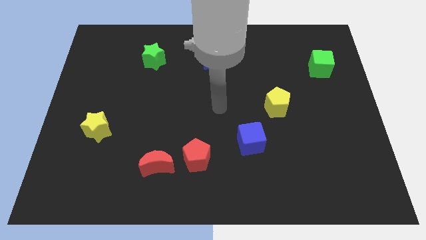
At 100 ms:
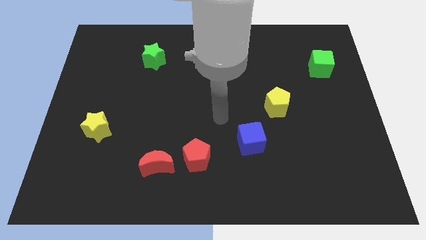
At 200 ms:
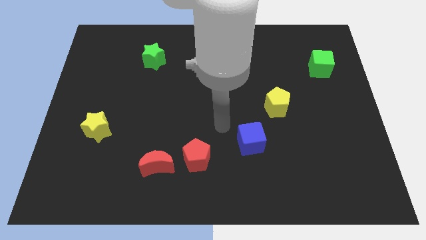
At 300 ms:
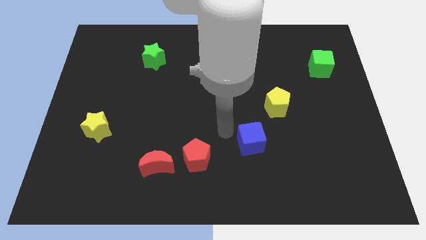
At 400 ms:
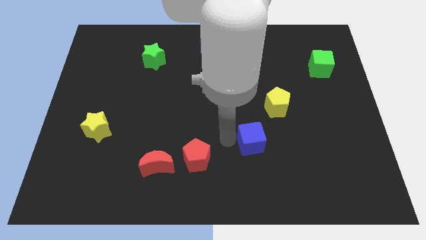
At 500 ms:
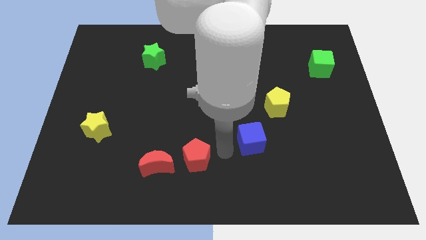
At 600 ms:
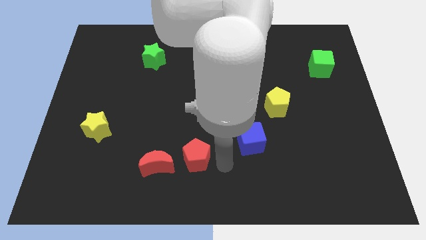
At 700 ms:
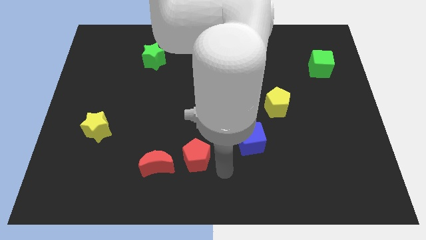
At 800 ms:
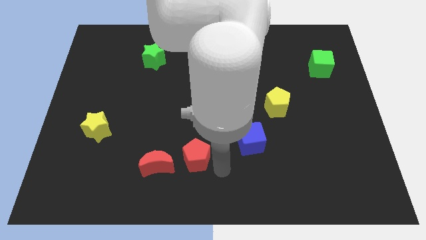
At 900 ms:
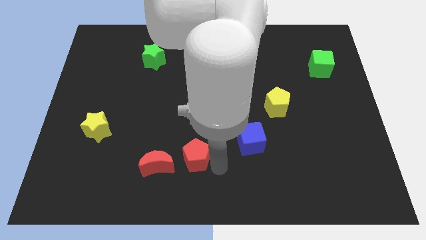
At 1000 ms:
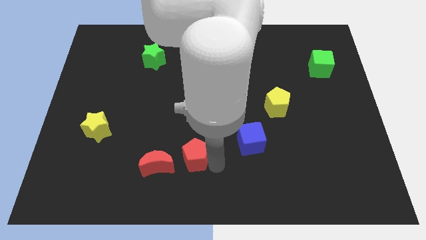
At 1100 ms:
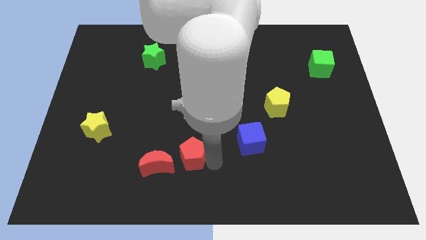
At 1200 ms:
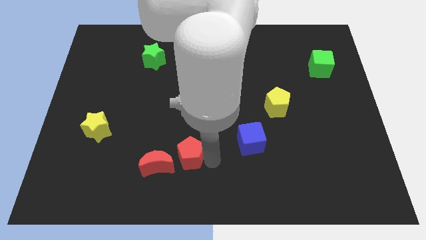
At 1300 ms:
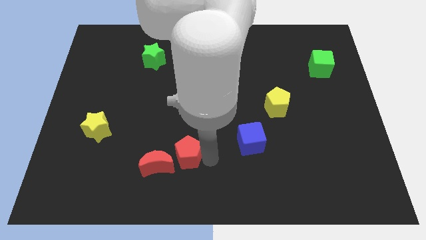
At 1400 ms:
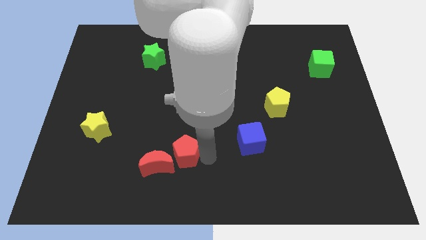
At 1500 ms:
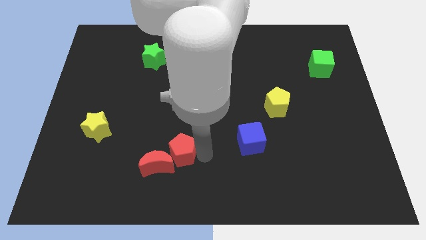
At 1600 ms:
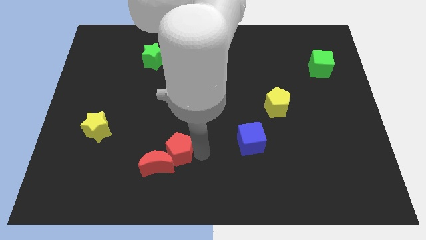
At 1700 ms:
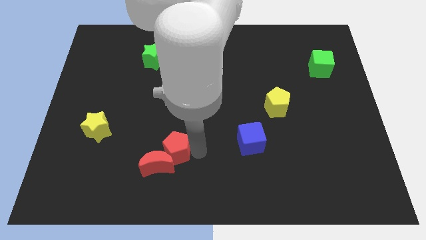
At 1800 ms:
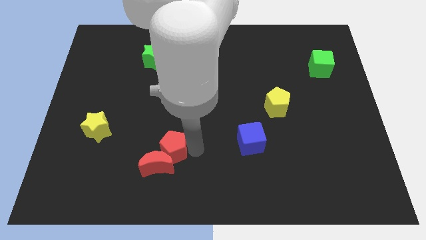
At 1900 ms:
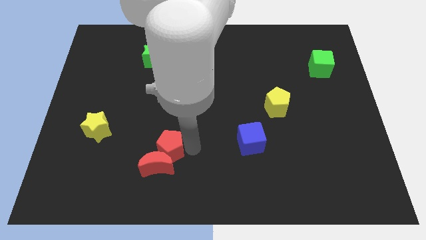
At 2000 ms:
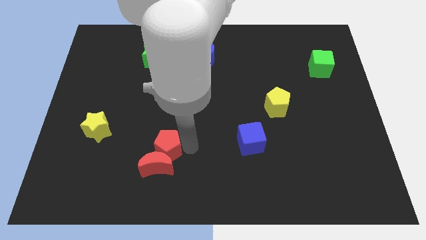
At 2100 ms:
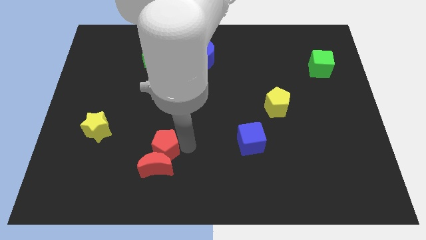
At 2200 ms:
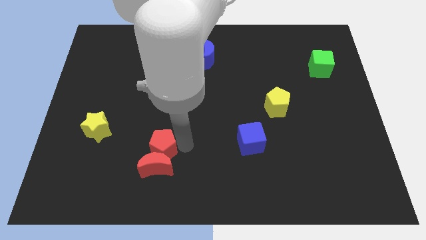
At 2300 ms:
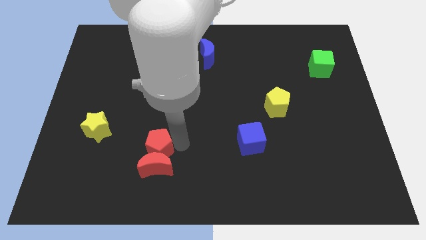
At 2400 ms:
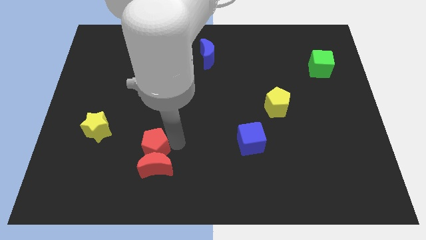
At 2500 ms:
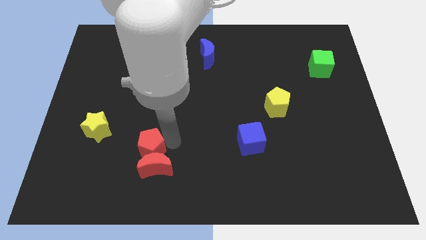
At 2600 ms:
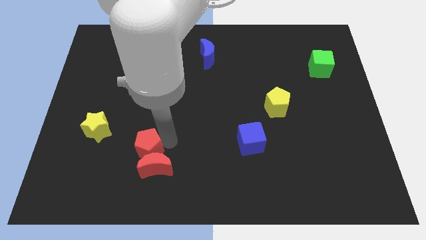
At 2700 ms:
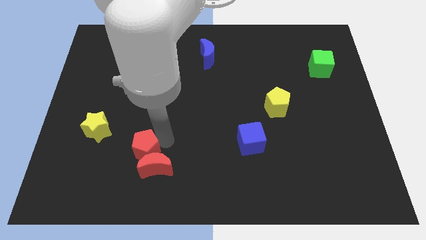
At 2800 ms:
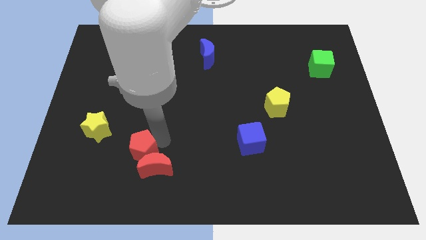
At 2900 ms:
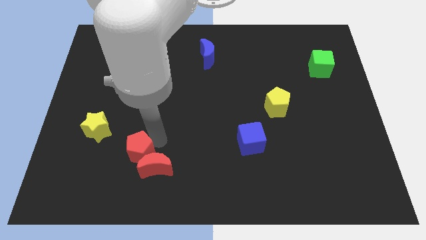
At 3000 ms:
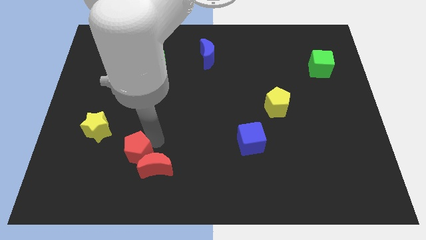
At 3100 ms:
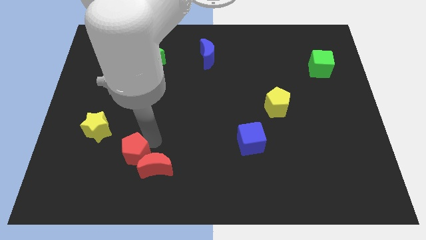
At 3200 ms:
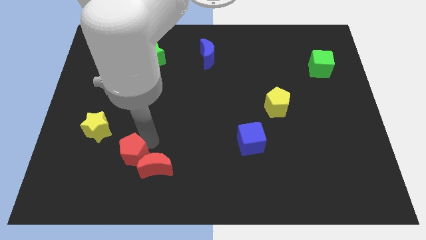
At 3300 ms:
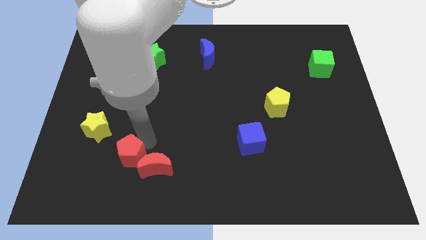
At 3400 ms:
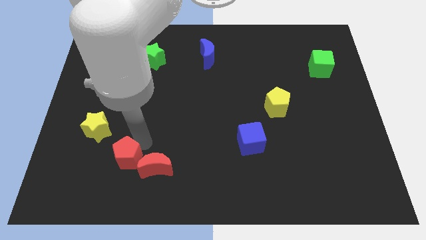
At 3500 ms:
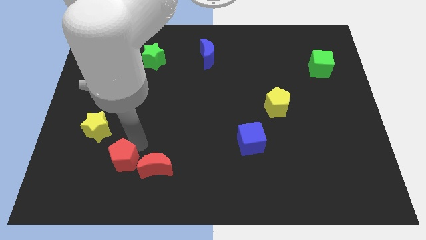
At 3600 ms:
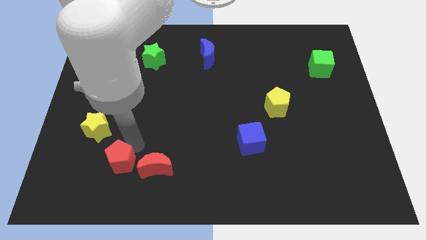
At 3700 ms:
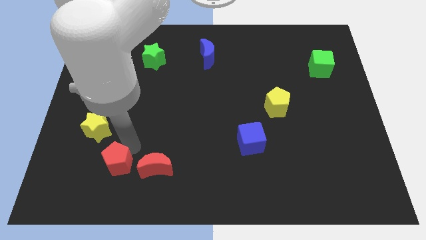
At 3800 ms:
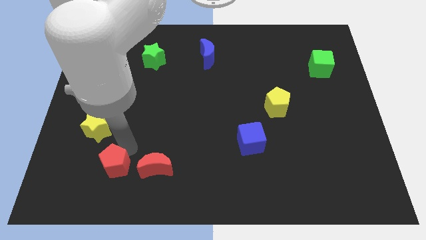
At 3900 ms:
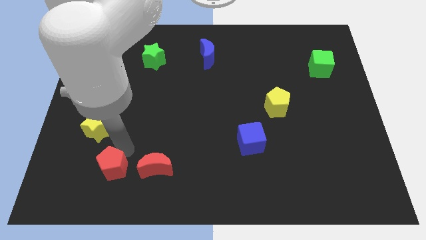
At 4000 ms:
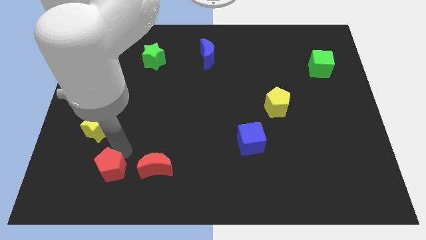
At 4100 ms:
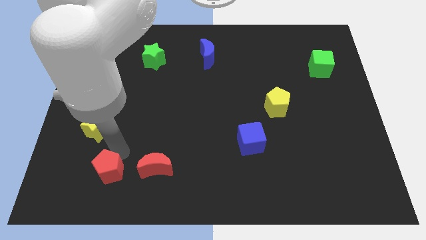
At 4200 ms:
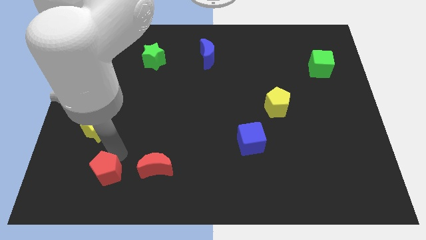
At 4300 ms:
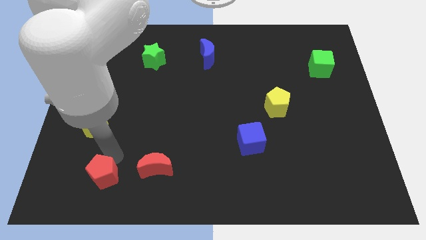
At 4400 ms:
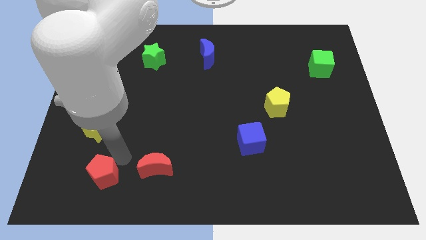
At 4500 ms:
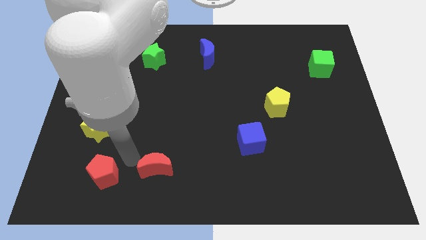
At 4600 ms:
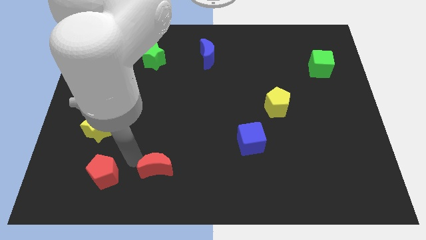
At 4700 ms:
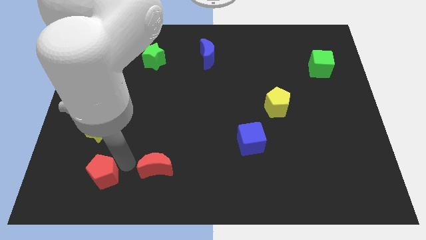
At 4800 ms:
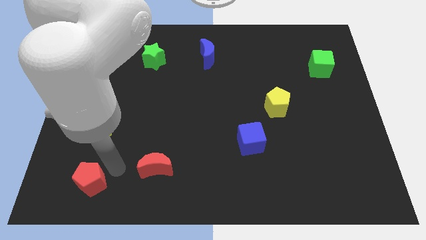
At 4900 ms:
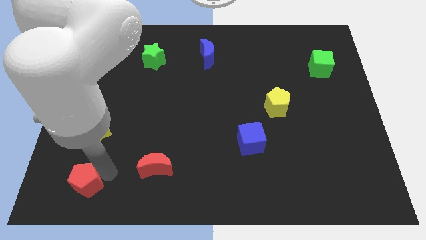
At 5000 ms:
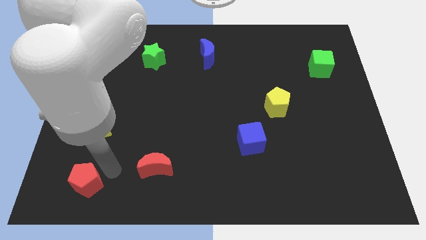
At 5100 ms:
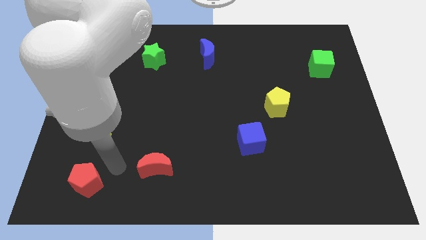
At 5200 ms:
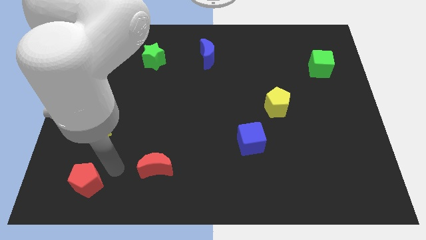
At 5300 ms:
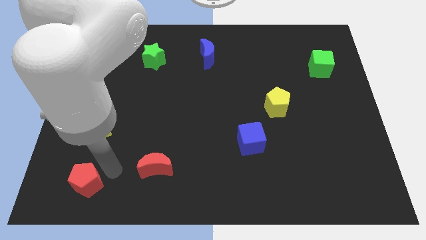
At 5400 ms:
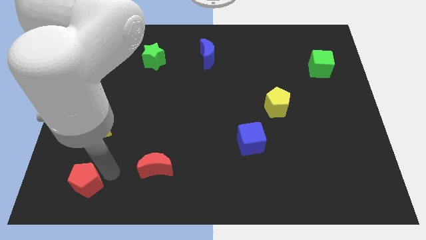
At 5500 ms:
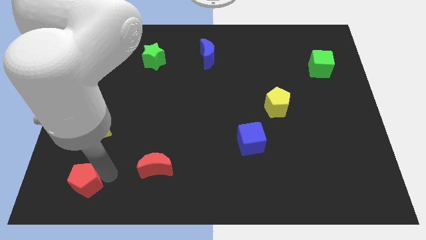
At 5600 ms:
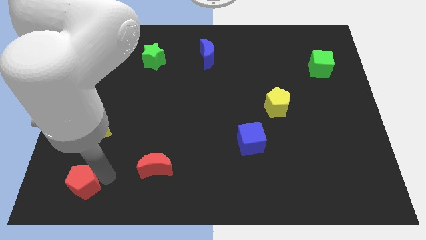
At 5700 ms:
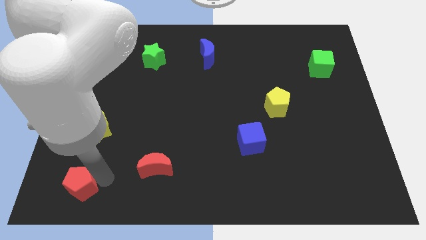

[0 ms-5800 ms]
put the red pentagon to the lower left corner

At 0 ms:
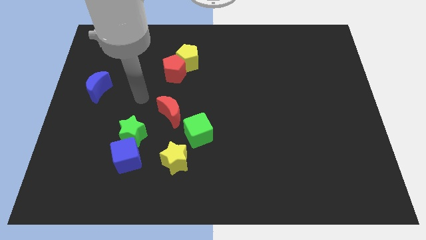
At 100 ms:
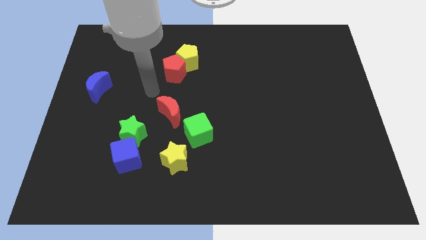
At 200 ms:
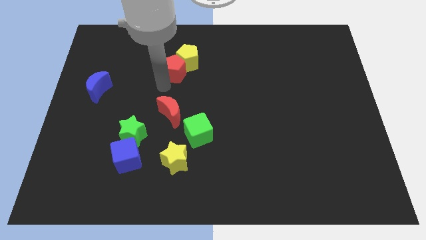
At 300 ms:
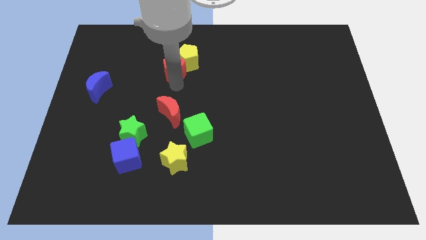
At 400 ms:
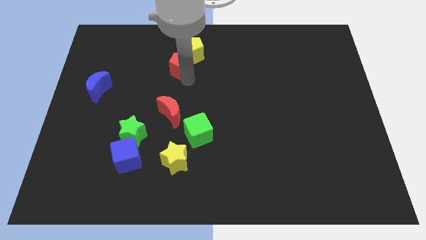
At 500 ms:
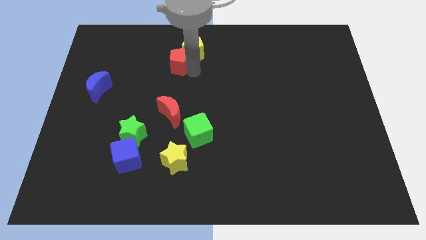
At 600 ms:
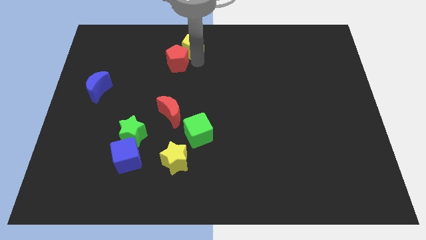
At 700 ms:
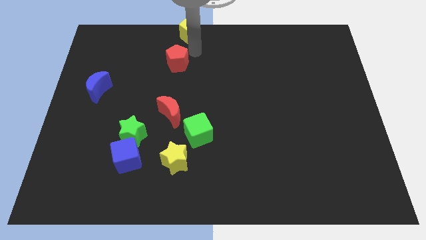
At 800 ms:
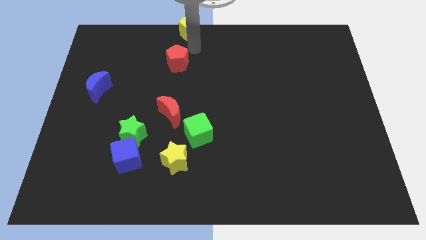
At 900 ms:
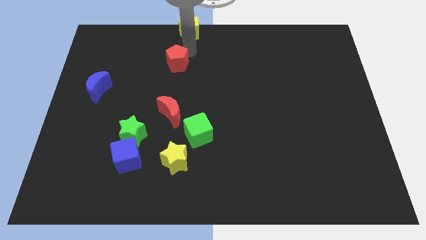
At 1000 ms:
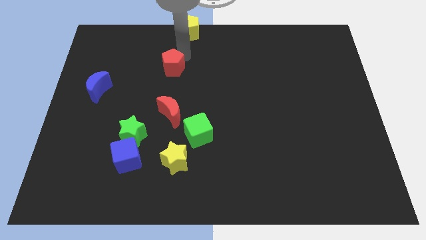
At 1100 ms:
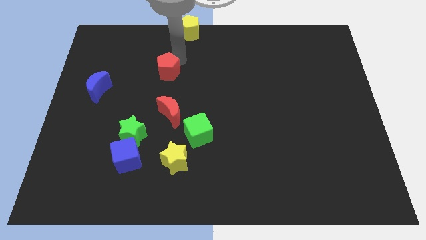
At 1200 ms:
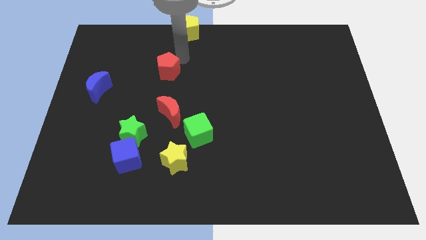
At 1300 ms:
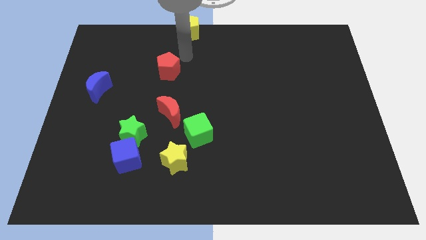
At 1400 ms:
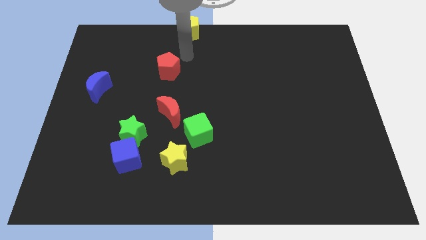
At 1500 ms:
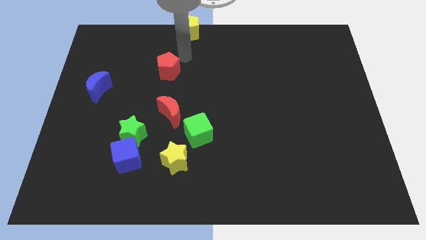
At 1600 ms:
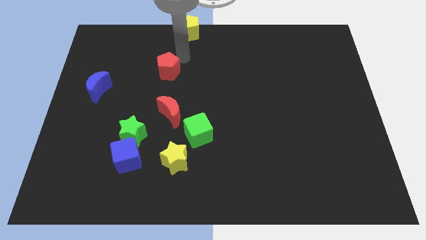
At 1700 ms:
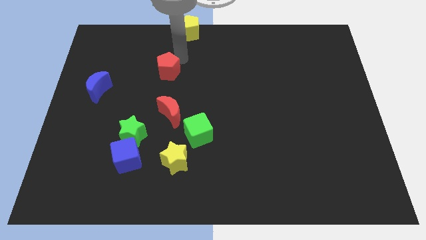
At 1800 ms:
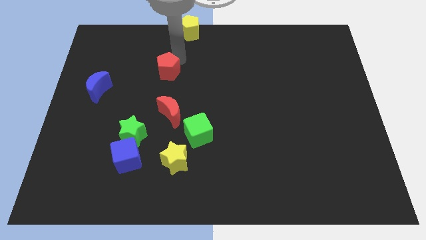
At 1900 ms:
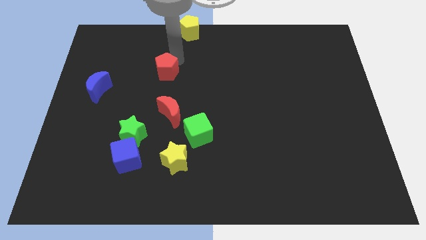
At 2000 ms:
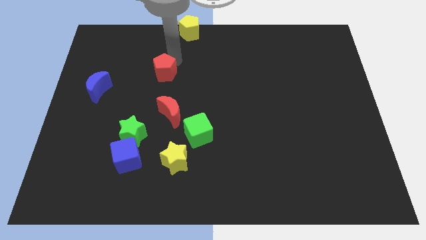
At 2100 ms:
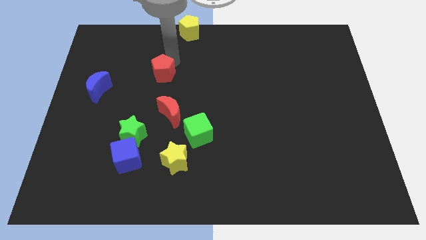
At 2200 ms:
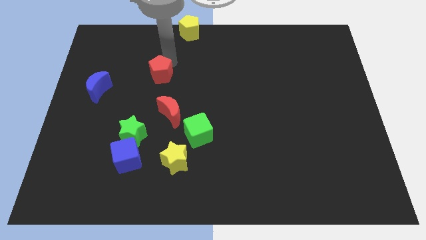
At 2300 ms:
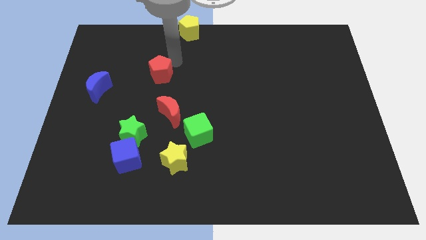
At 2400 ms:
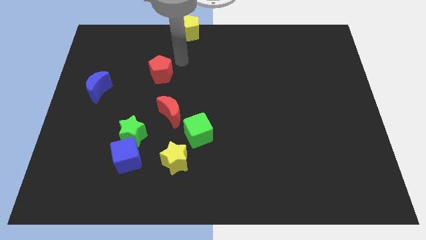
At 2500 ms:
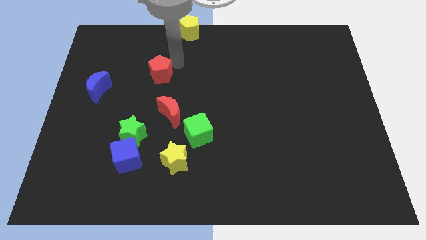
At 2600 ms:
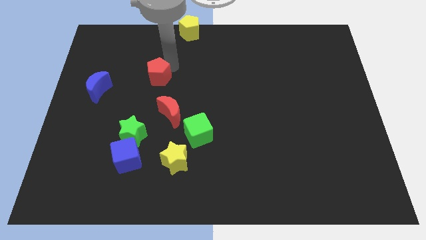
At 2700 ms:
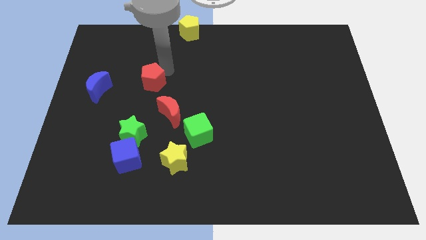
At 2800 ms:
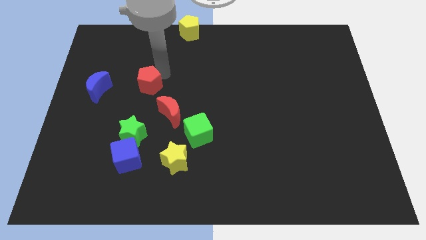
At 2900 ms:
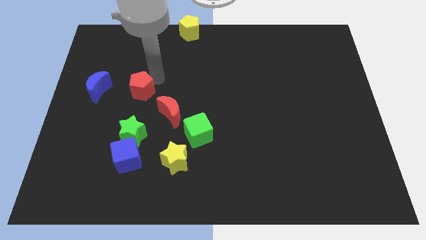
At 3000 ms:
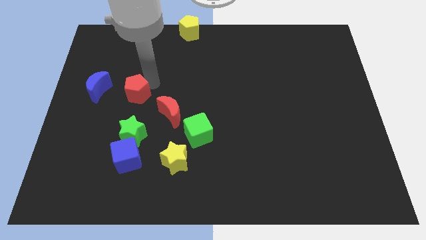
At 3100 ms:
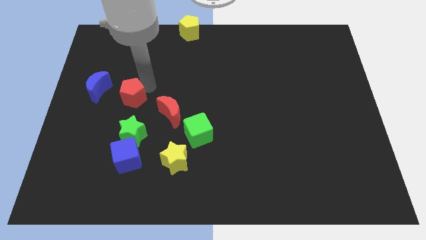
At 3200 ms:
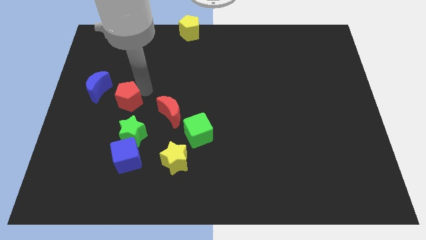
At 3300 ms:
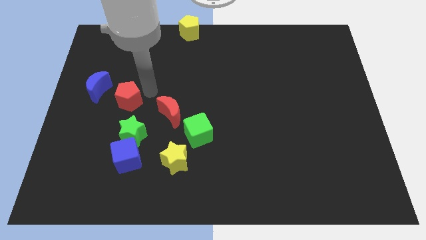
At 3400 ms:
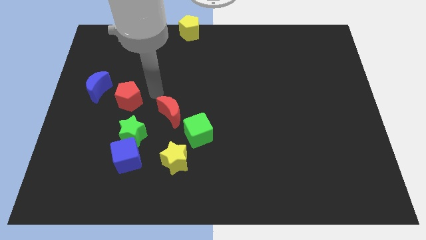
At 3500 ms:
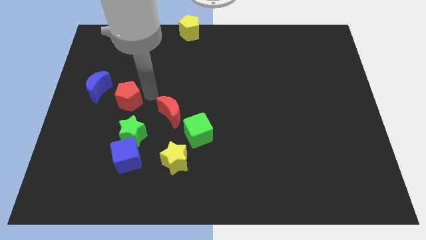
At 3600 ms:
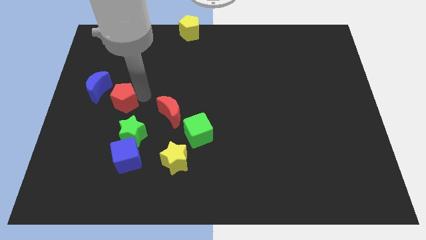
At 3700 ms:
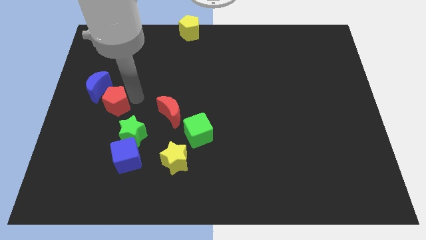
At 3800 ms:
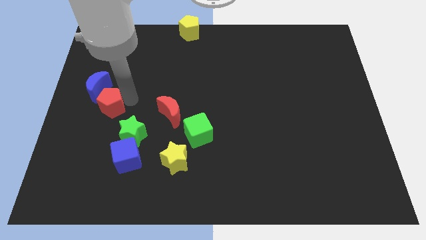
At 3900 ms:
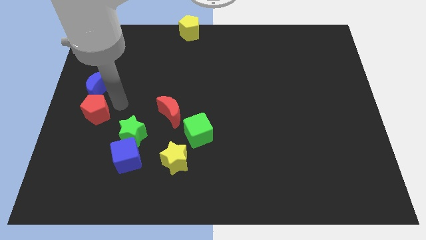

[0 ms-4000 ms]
move the red pentagon to the left side
